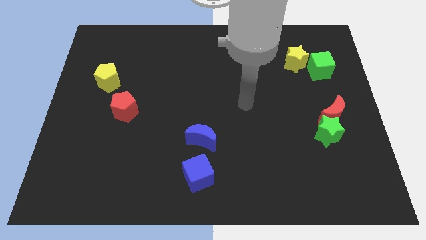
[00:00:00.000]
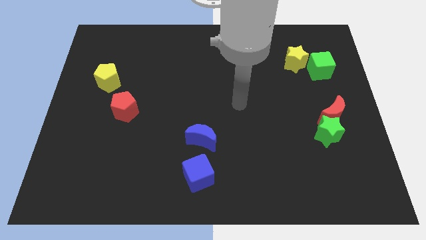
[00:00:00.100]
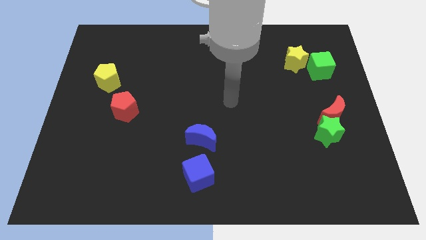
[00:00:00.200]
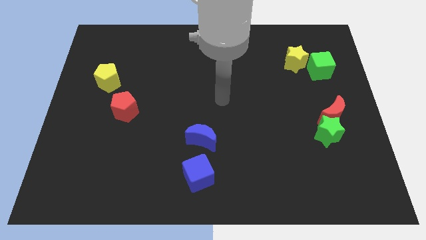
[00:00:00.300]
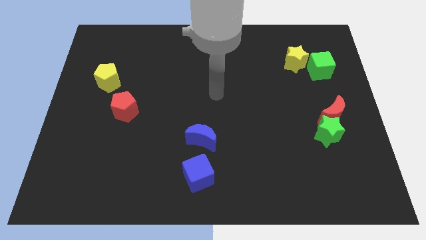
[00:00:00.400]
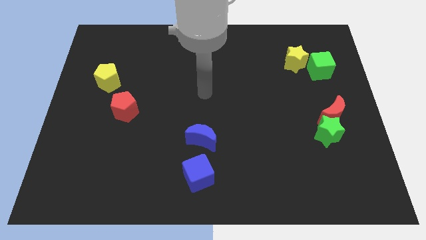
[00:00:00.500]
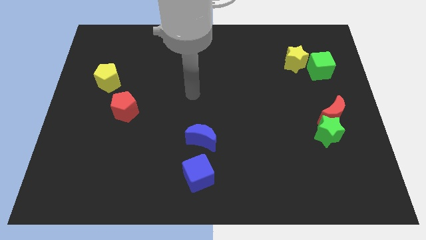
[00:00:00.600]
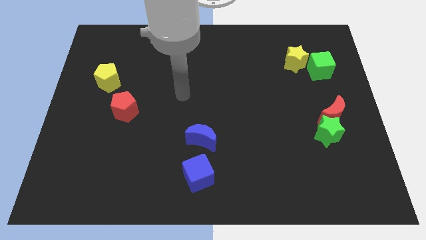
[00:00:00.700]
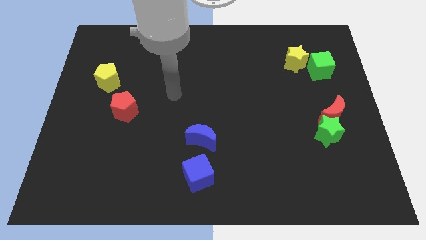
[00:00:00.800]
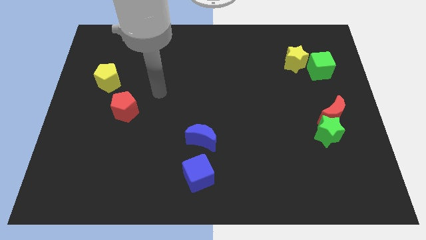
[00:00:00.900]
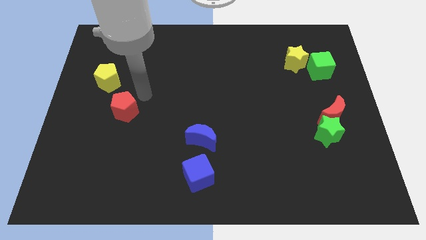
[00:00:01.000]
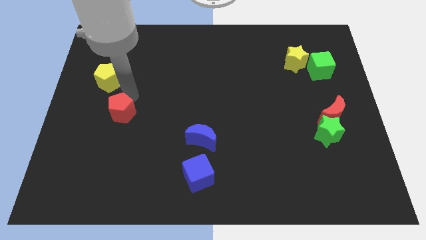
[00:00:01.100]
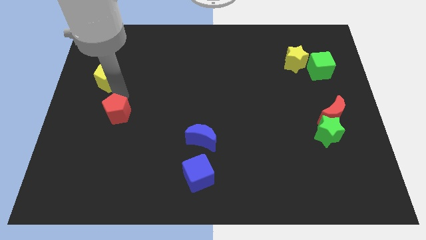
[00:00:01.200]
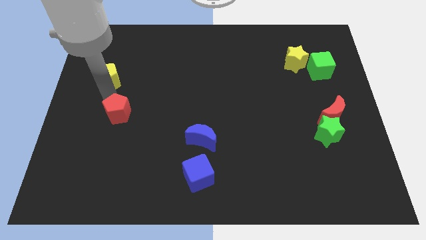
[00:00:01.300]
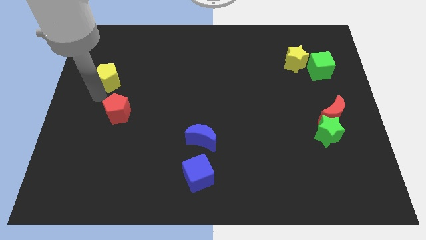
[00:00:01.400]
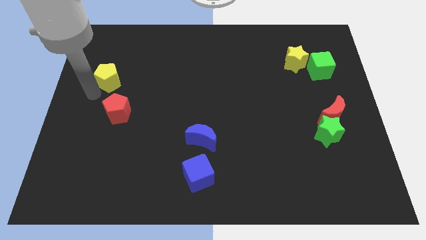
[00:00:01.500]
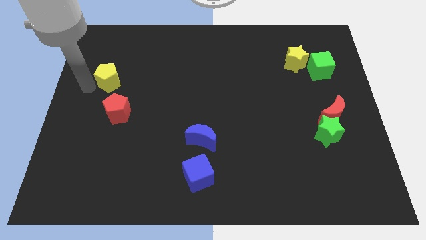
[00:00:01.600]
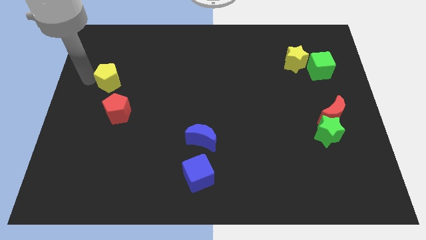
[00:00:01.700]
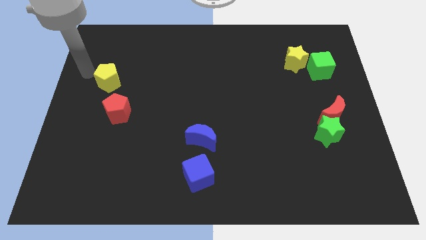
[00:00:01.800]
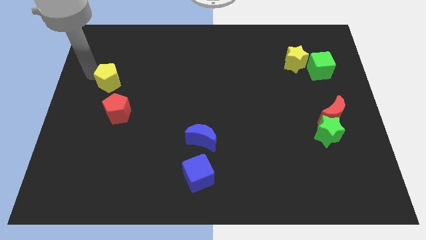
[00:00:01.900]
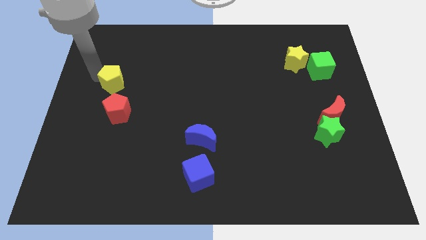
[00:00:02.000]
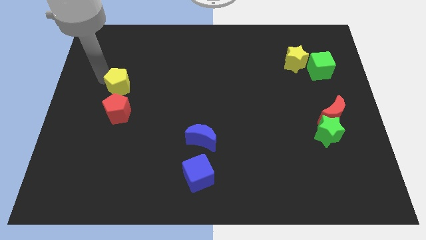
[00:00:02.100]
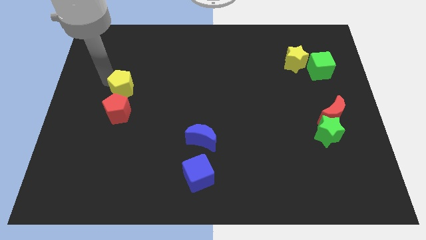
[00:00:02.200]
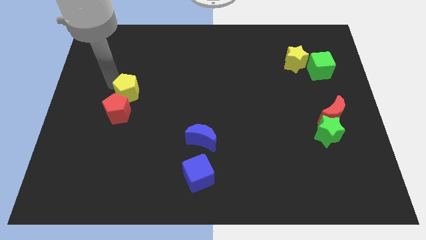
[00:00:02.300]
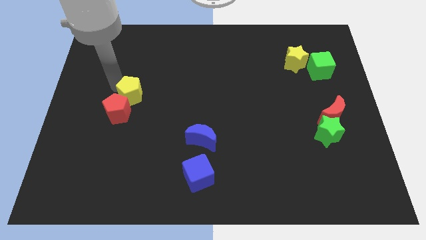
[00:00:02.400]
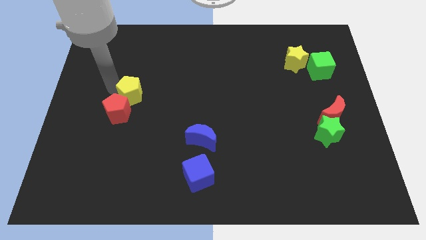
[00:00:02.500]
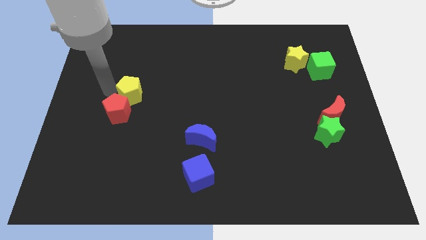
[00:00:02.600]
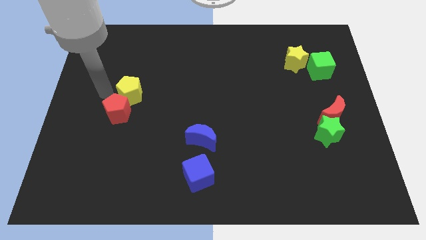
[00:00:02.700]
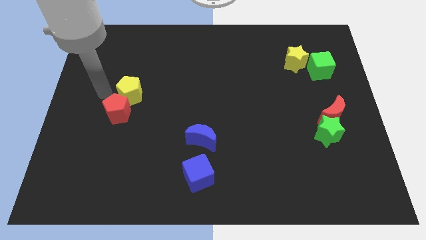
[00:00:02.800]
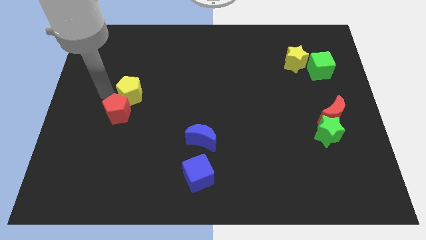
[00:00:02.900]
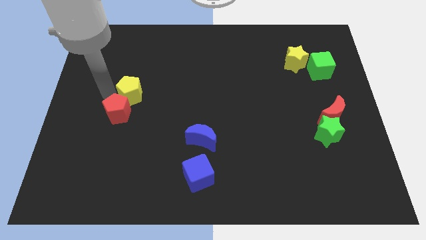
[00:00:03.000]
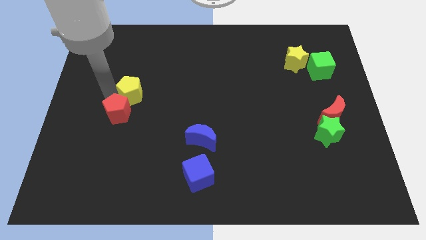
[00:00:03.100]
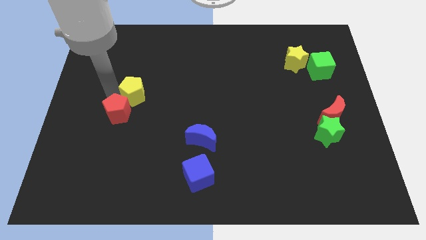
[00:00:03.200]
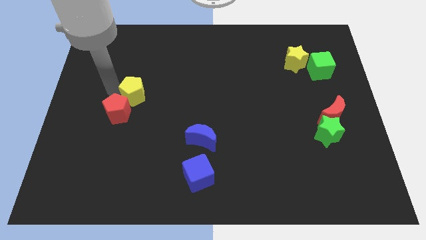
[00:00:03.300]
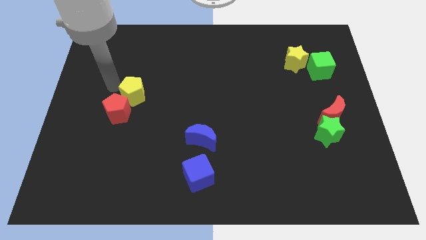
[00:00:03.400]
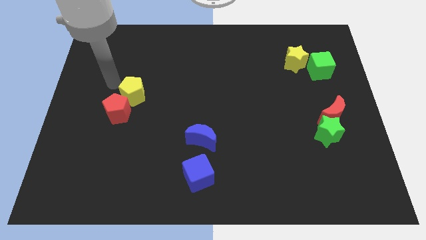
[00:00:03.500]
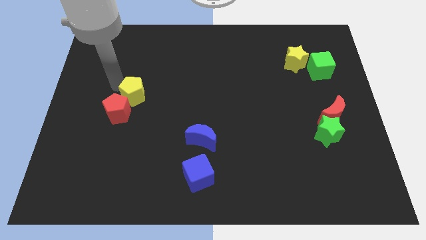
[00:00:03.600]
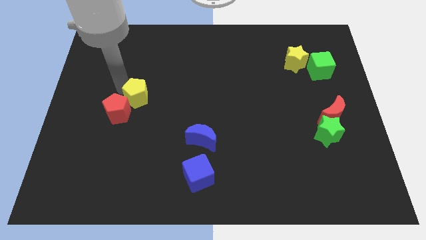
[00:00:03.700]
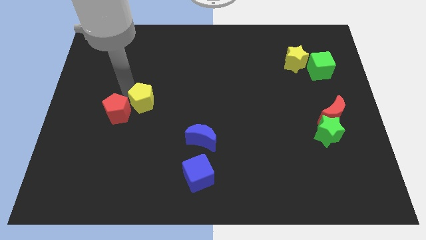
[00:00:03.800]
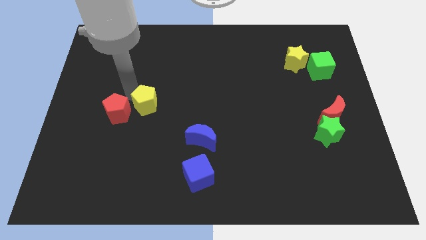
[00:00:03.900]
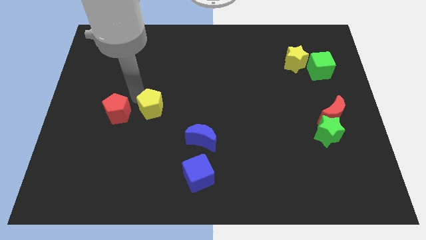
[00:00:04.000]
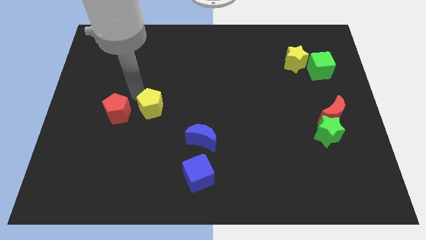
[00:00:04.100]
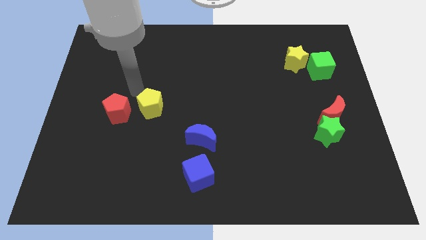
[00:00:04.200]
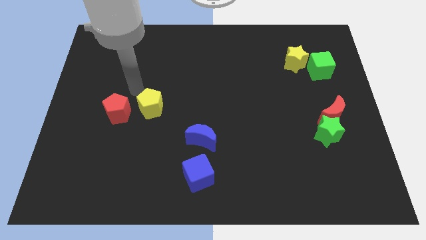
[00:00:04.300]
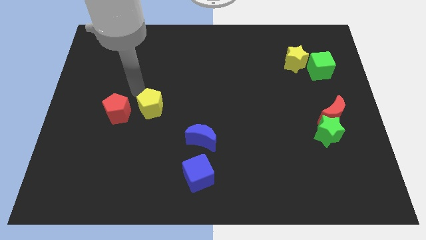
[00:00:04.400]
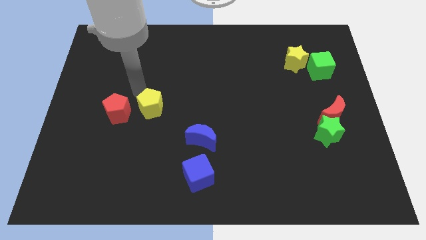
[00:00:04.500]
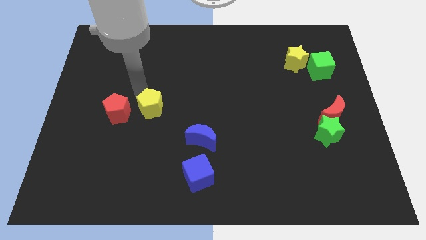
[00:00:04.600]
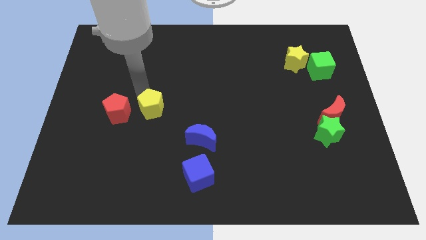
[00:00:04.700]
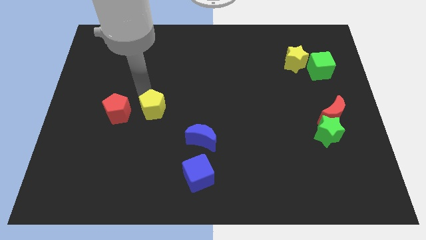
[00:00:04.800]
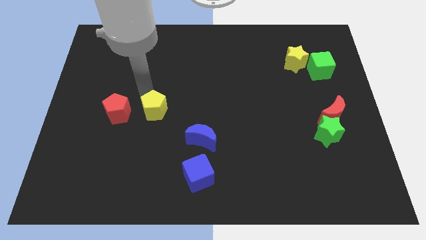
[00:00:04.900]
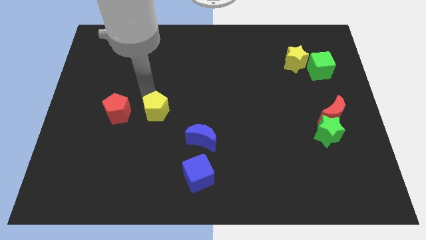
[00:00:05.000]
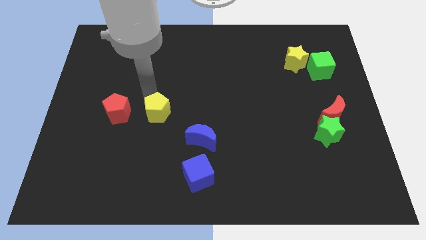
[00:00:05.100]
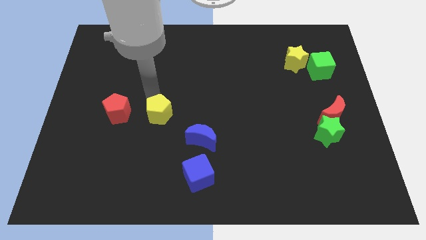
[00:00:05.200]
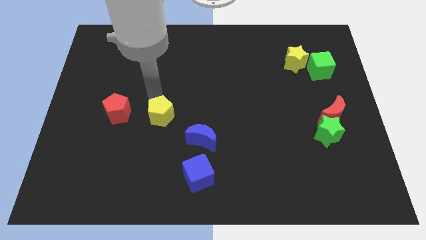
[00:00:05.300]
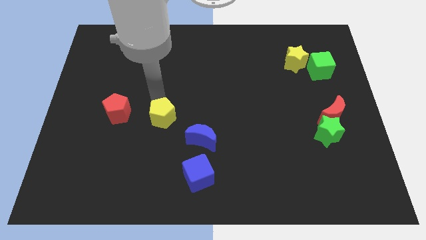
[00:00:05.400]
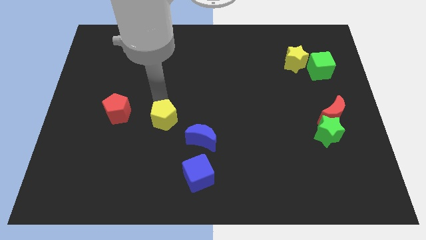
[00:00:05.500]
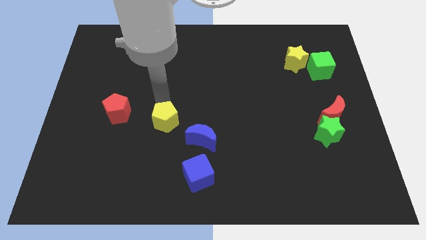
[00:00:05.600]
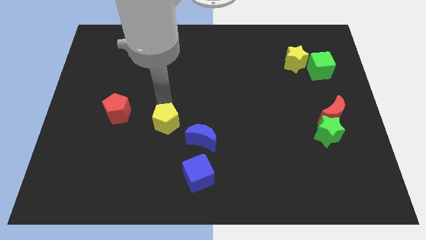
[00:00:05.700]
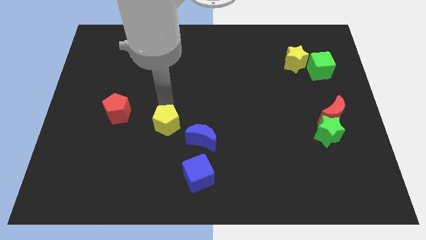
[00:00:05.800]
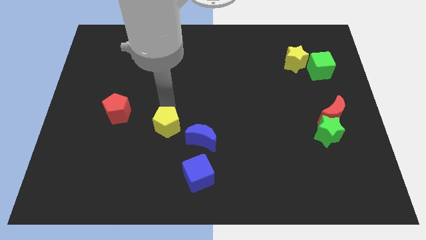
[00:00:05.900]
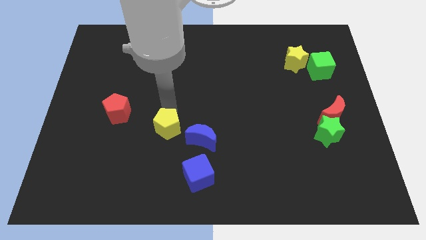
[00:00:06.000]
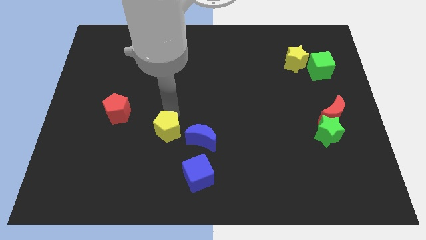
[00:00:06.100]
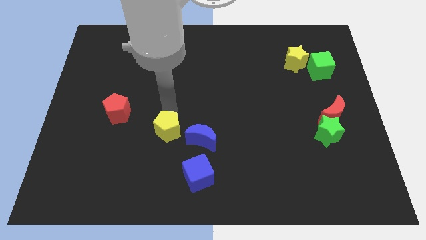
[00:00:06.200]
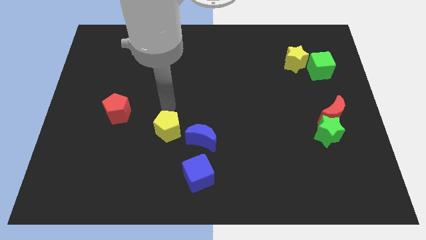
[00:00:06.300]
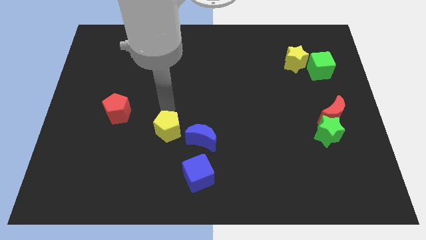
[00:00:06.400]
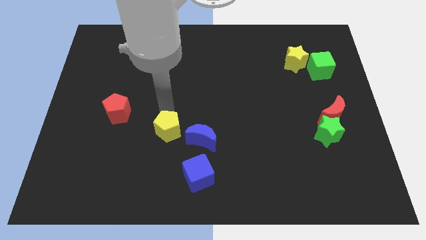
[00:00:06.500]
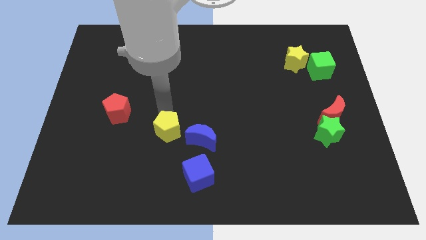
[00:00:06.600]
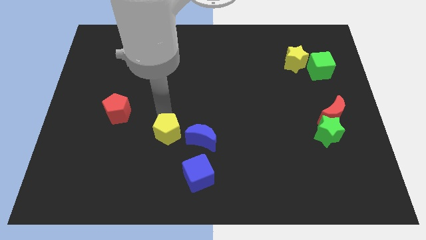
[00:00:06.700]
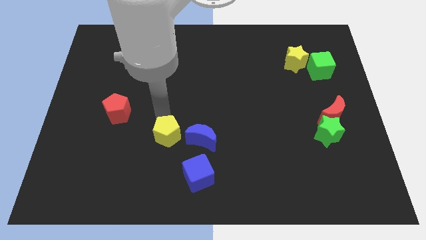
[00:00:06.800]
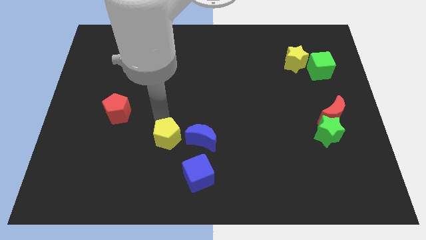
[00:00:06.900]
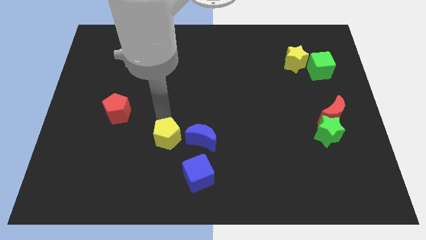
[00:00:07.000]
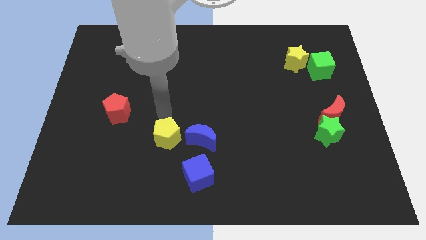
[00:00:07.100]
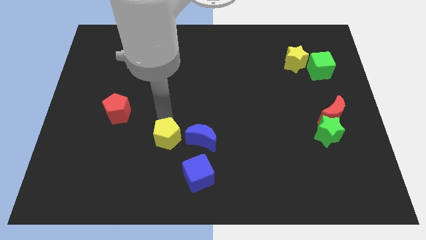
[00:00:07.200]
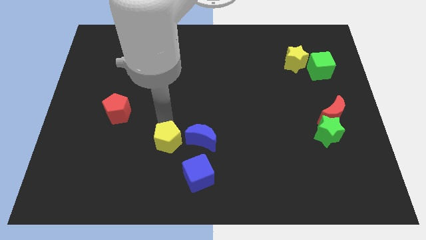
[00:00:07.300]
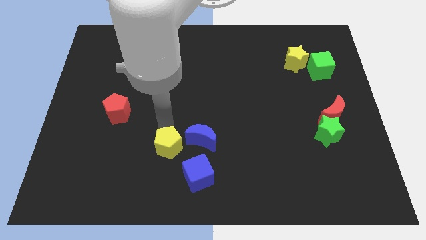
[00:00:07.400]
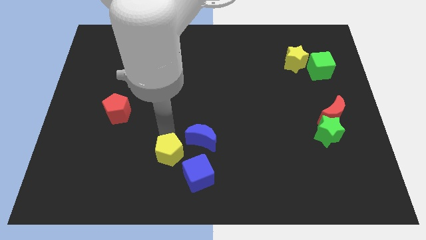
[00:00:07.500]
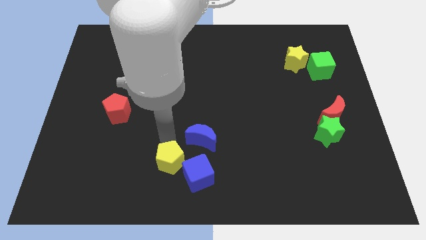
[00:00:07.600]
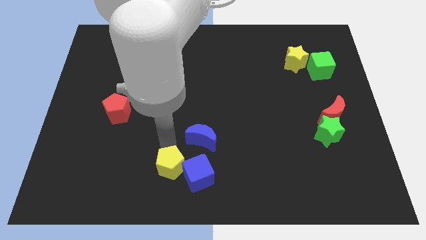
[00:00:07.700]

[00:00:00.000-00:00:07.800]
slide the yellow pentagon to the bottom side
